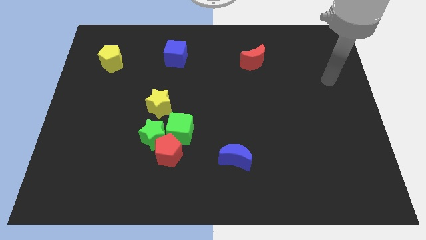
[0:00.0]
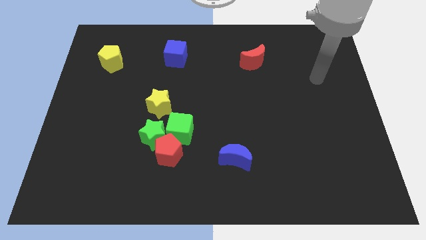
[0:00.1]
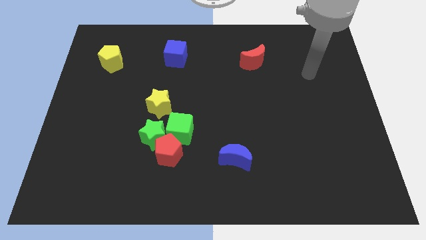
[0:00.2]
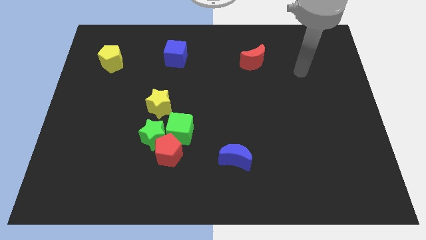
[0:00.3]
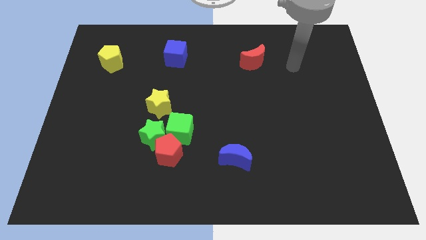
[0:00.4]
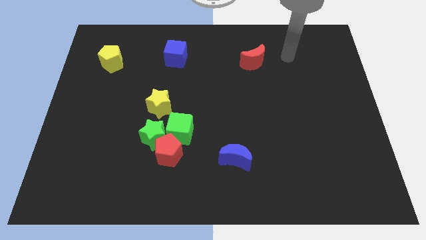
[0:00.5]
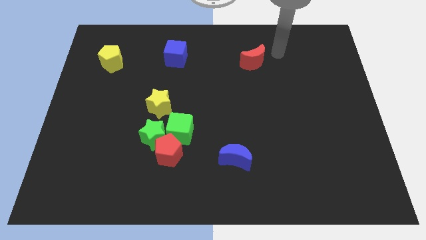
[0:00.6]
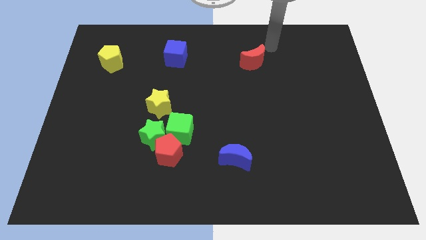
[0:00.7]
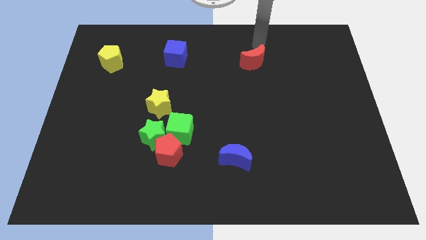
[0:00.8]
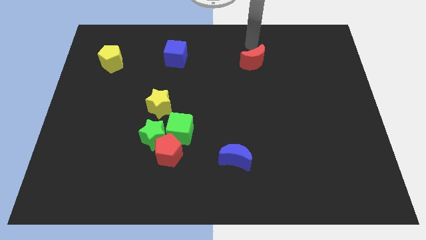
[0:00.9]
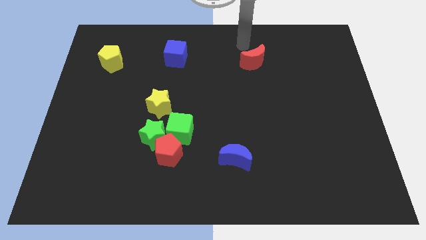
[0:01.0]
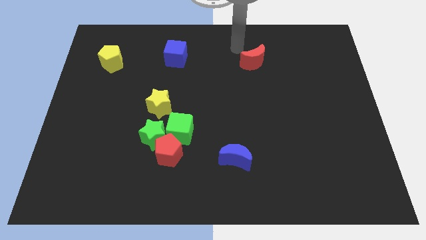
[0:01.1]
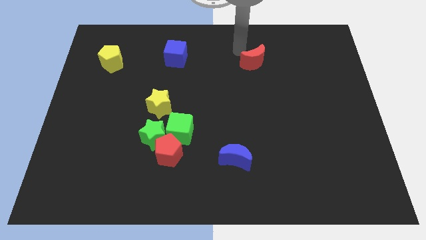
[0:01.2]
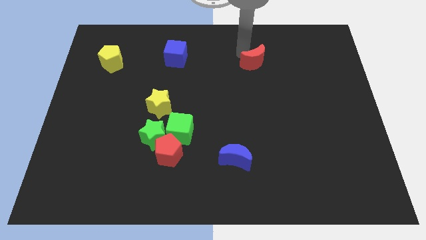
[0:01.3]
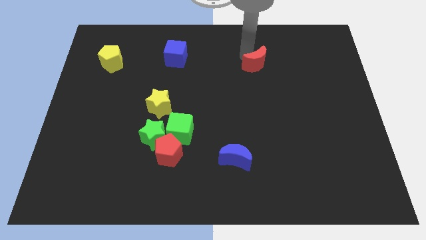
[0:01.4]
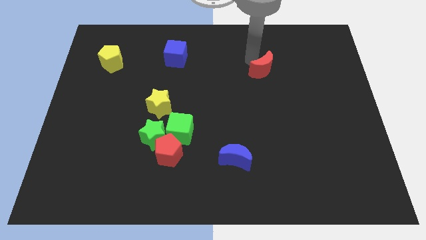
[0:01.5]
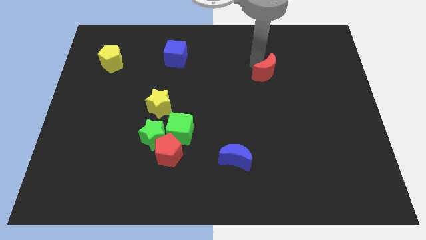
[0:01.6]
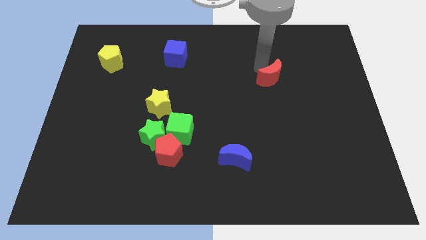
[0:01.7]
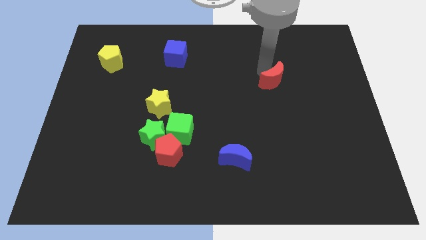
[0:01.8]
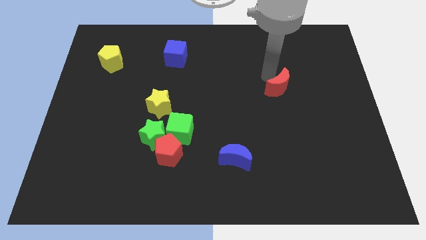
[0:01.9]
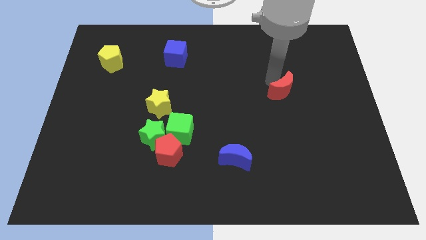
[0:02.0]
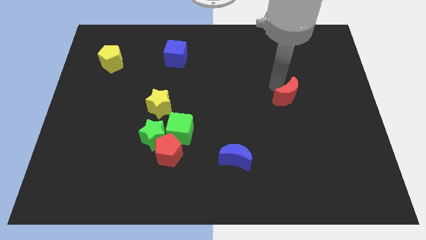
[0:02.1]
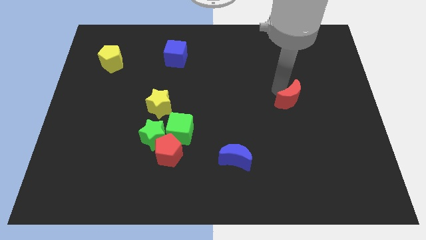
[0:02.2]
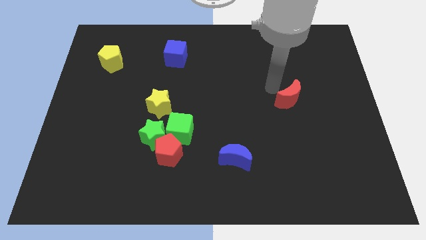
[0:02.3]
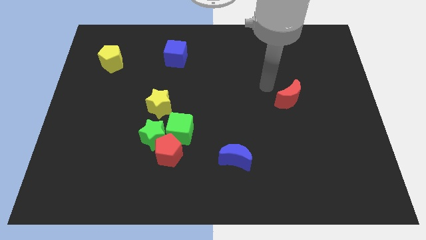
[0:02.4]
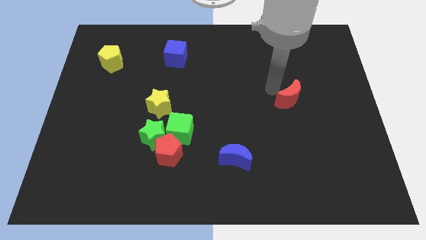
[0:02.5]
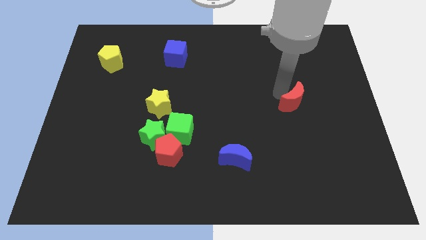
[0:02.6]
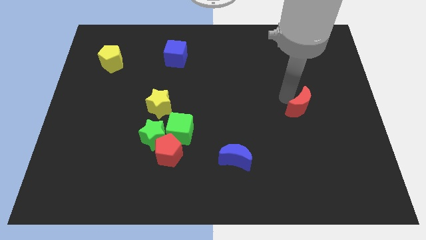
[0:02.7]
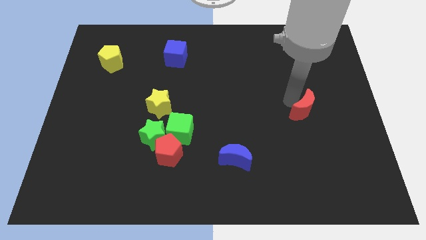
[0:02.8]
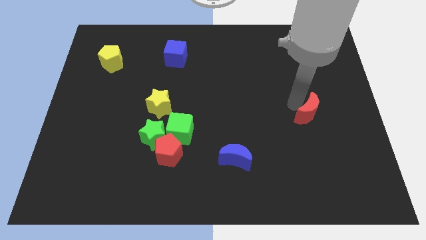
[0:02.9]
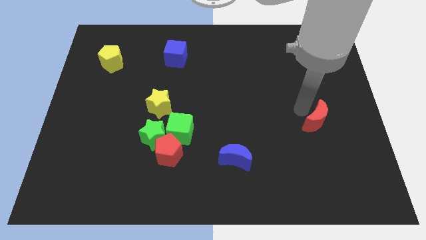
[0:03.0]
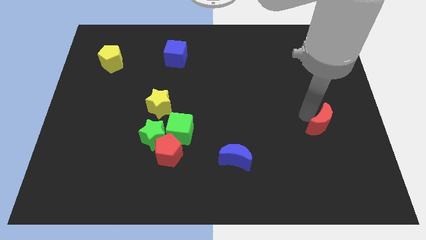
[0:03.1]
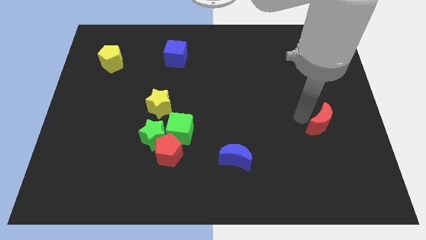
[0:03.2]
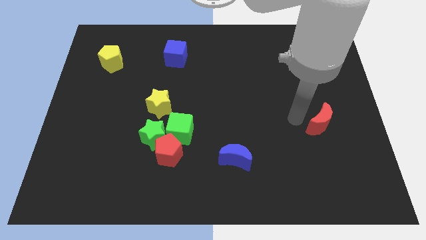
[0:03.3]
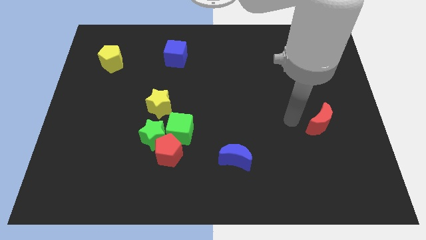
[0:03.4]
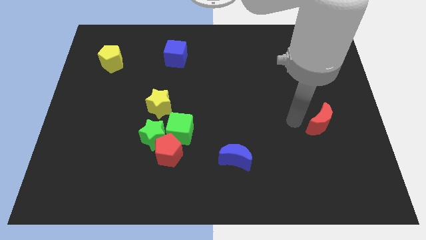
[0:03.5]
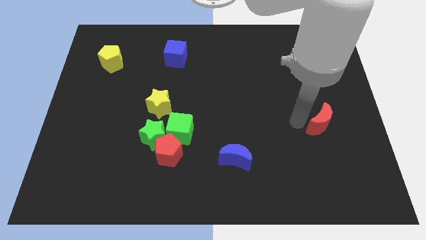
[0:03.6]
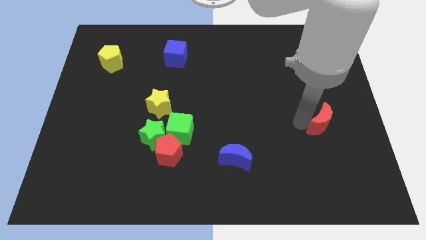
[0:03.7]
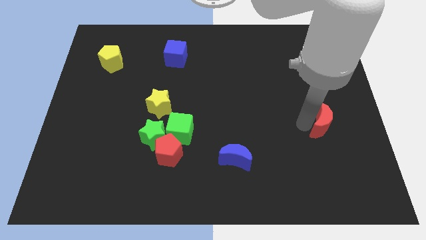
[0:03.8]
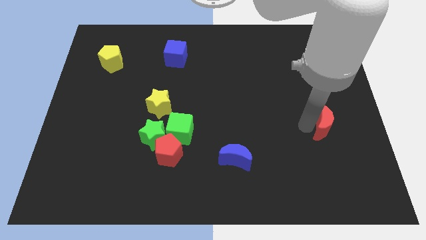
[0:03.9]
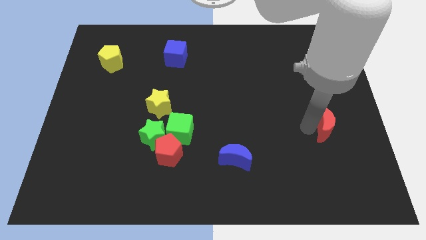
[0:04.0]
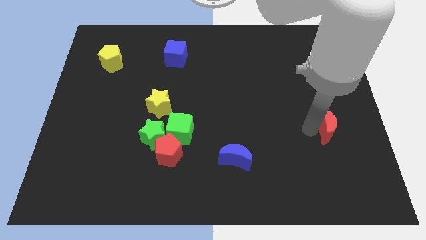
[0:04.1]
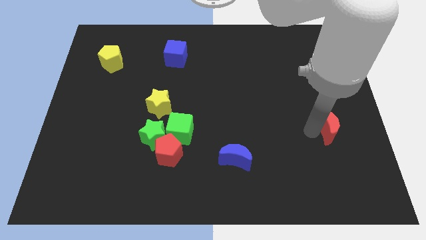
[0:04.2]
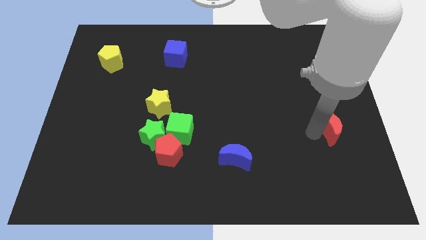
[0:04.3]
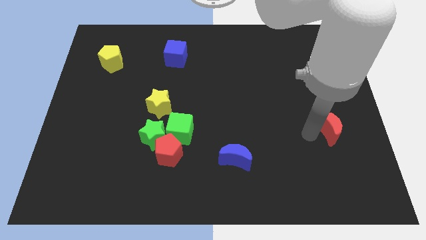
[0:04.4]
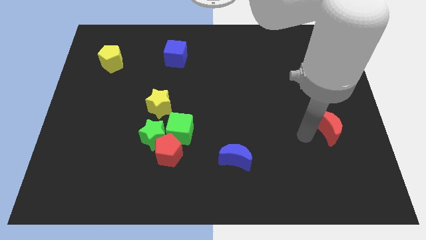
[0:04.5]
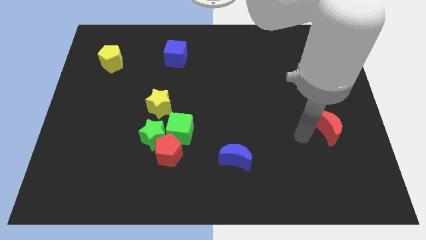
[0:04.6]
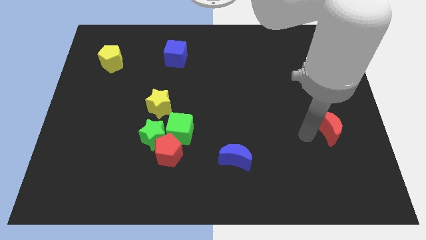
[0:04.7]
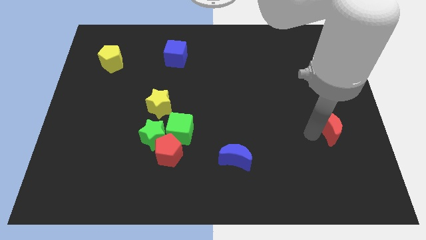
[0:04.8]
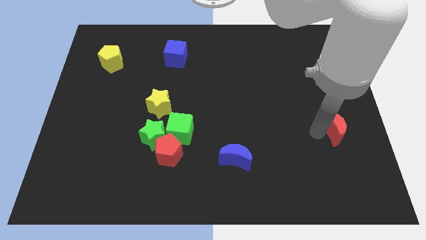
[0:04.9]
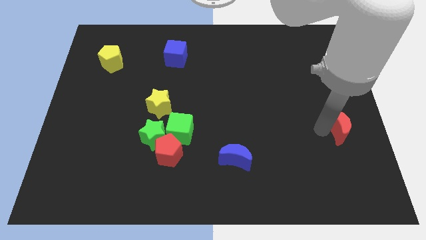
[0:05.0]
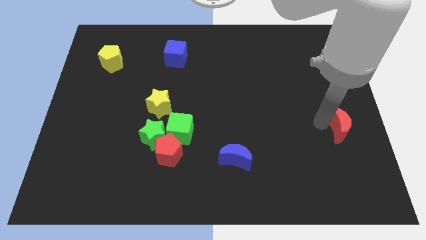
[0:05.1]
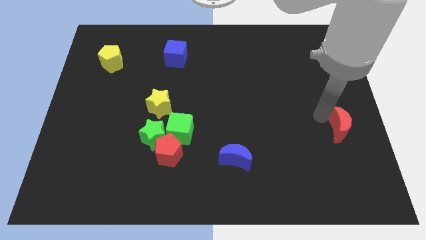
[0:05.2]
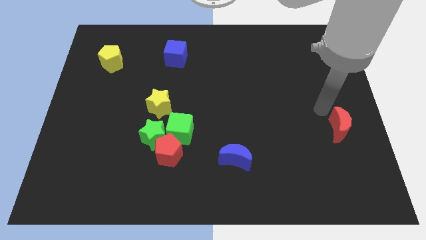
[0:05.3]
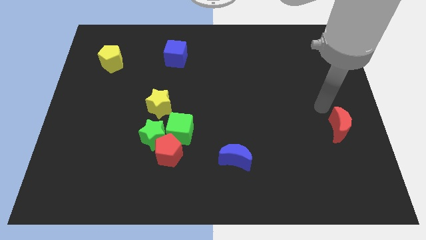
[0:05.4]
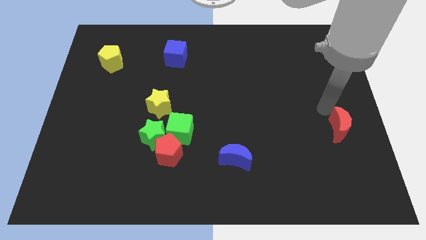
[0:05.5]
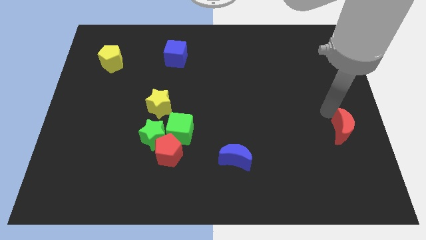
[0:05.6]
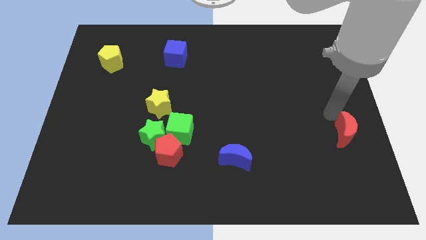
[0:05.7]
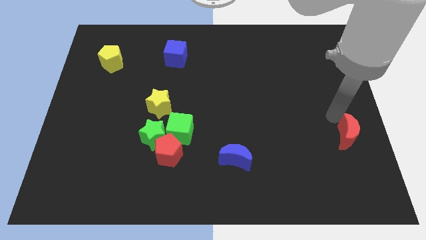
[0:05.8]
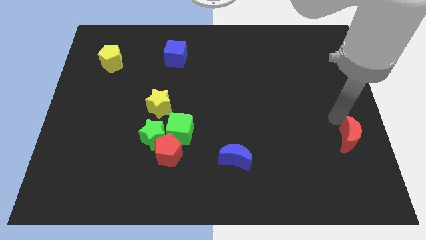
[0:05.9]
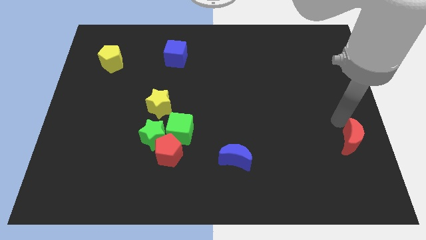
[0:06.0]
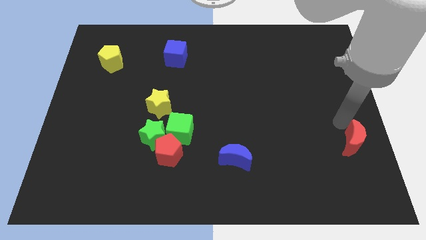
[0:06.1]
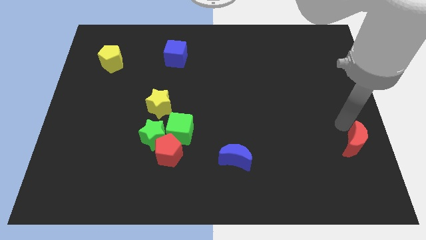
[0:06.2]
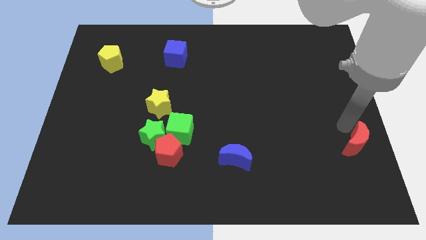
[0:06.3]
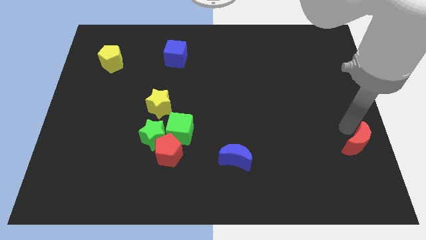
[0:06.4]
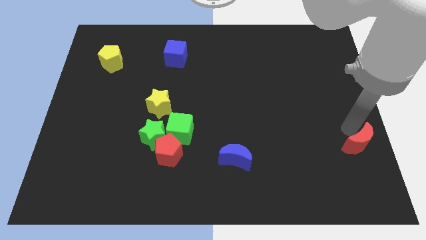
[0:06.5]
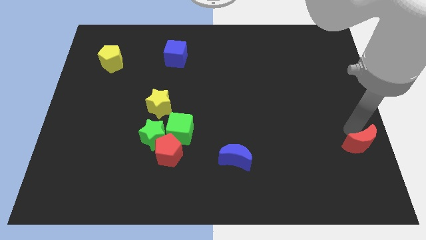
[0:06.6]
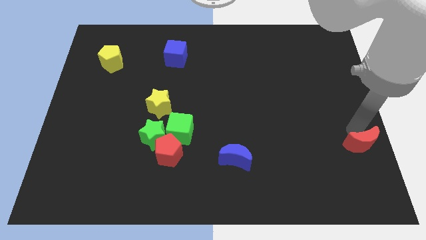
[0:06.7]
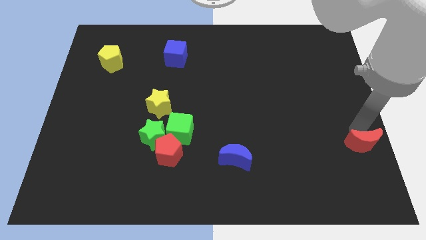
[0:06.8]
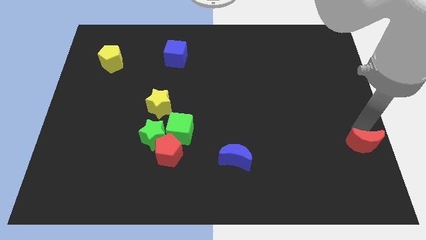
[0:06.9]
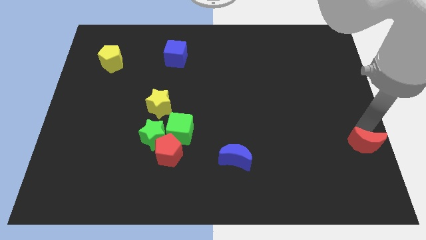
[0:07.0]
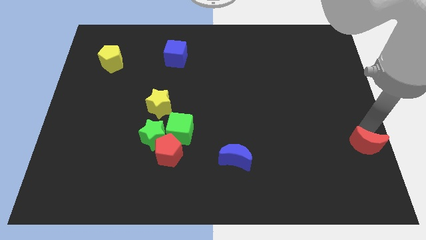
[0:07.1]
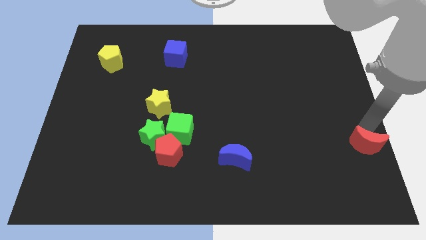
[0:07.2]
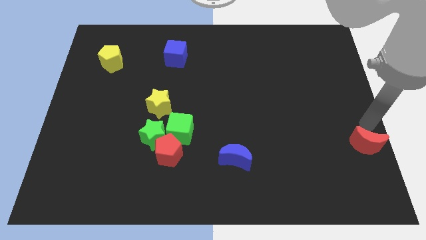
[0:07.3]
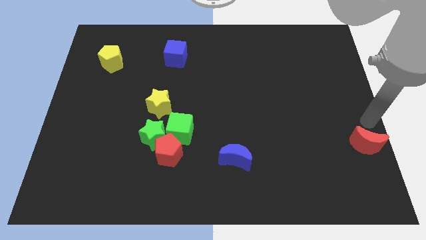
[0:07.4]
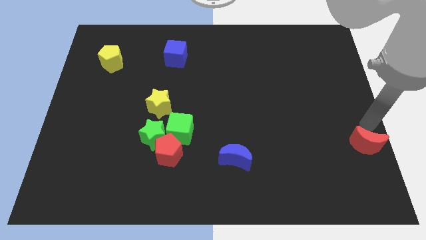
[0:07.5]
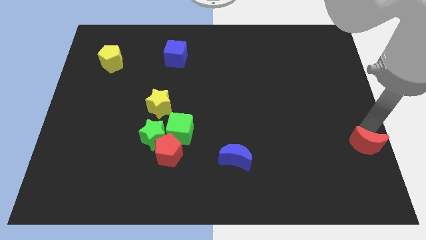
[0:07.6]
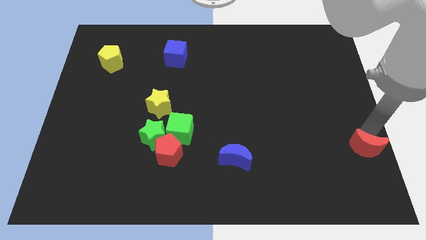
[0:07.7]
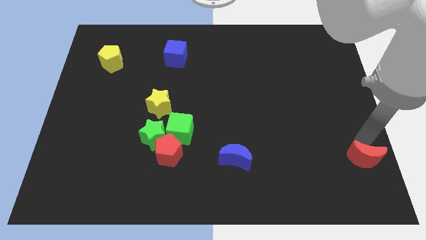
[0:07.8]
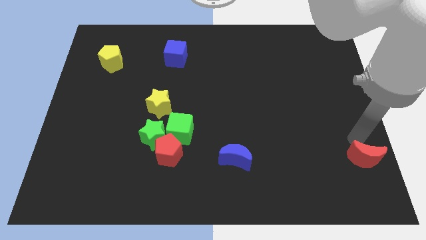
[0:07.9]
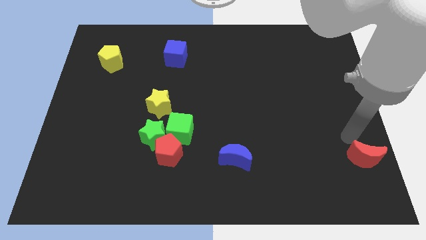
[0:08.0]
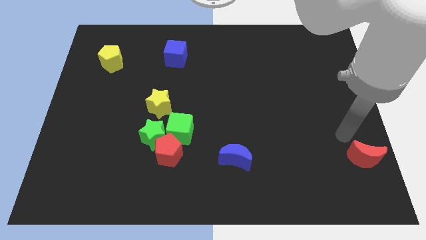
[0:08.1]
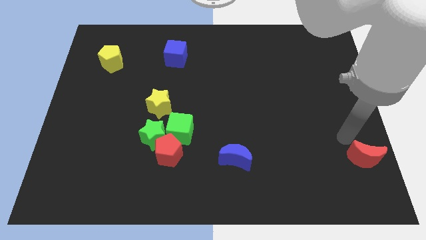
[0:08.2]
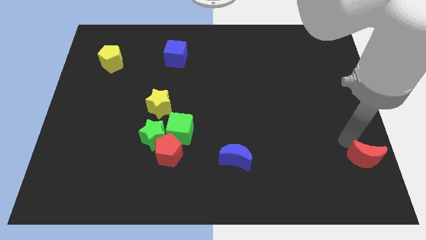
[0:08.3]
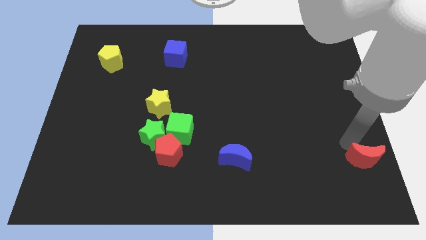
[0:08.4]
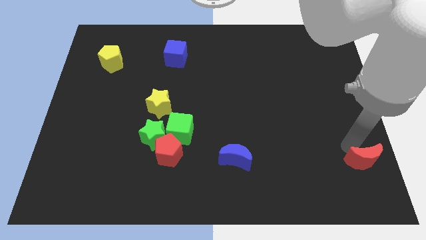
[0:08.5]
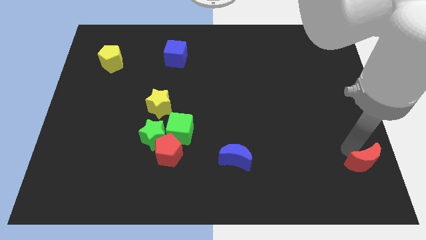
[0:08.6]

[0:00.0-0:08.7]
slide the red moon to the lower right corner
